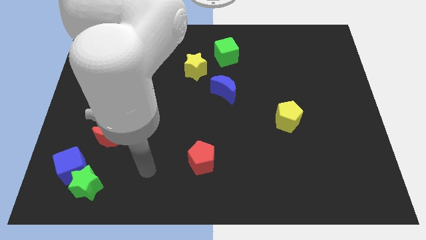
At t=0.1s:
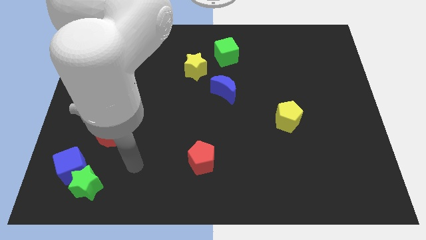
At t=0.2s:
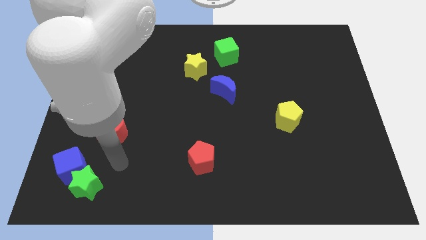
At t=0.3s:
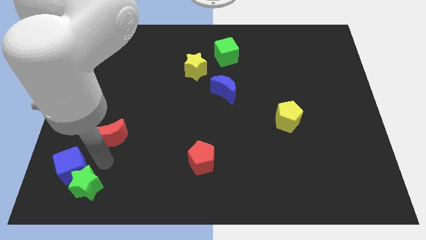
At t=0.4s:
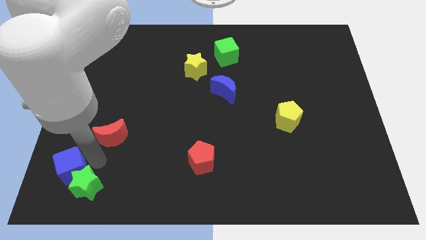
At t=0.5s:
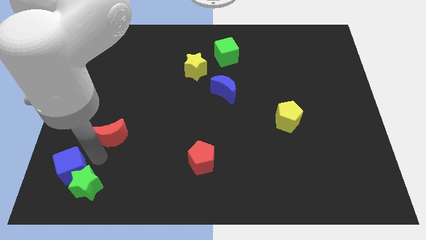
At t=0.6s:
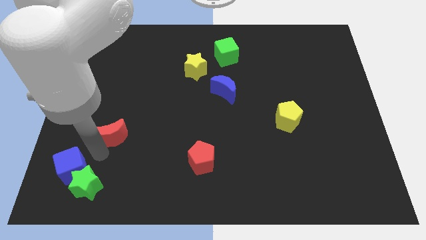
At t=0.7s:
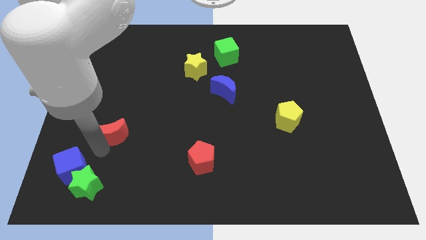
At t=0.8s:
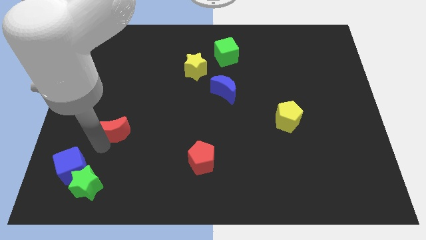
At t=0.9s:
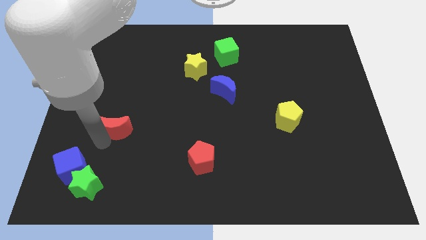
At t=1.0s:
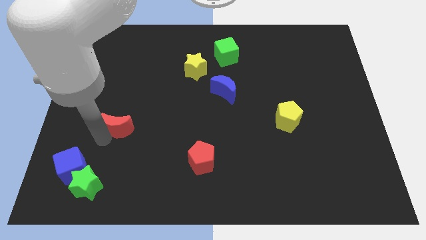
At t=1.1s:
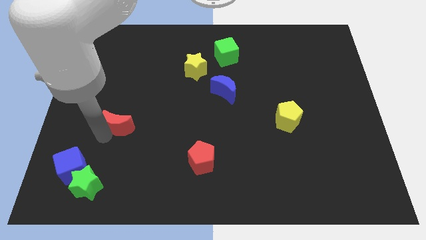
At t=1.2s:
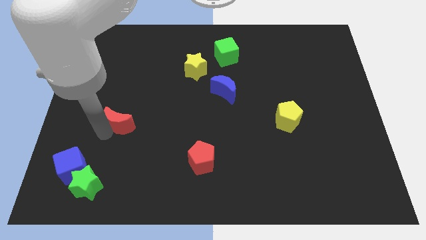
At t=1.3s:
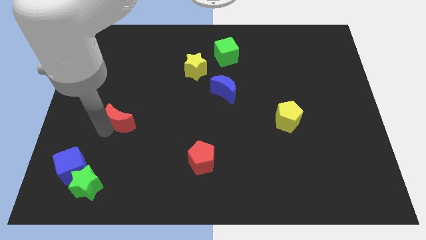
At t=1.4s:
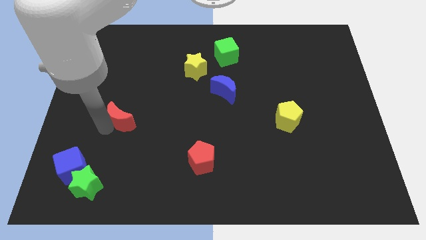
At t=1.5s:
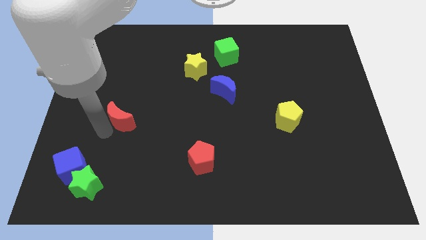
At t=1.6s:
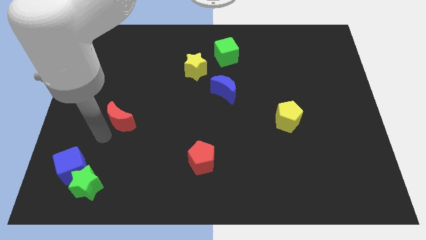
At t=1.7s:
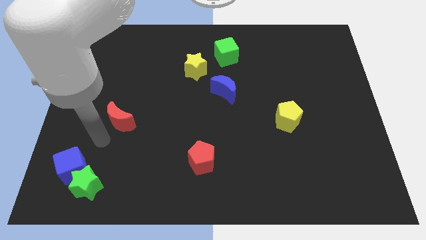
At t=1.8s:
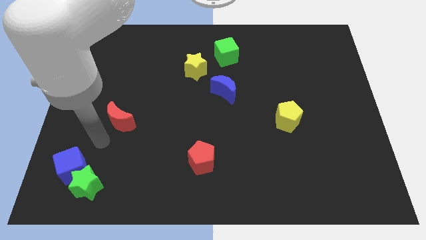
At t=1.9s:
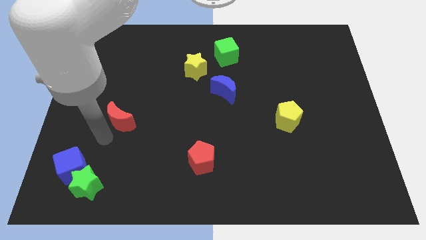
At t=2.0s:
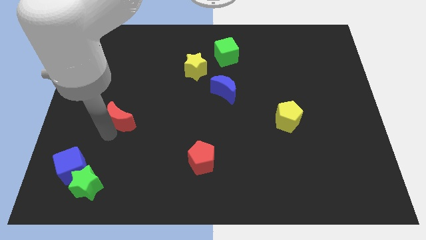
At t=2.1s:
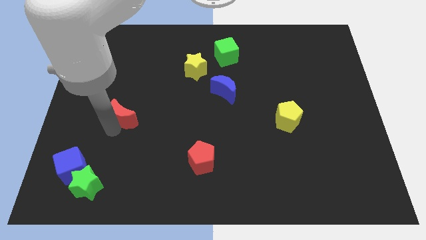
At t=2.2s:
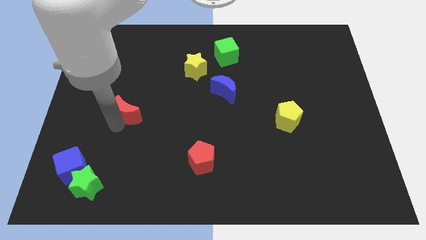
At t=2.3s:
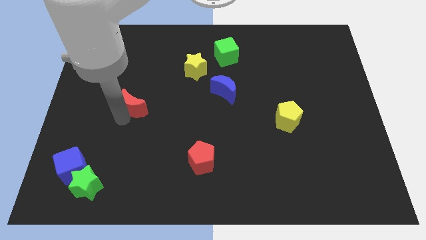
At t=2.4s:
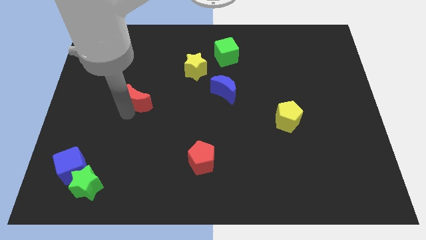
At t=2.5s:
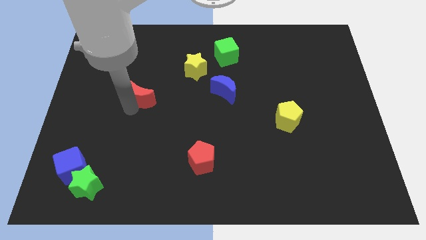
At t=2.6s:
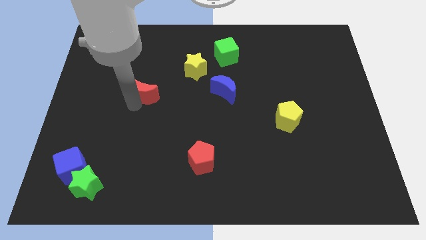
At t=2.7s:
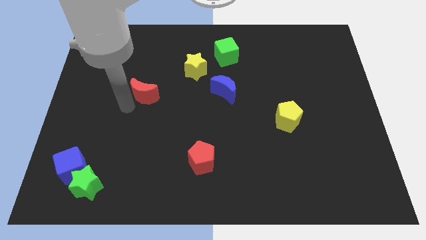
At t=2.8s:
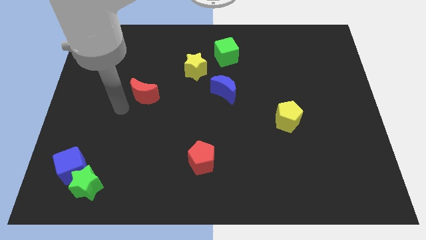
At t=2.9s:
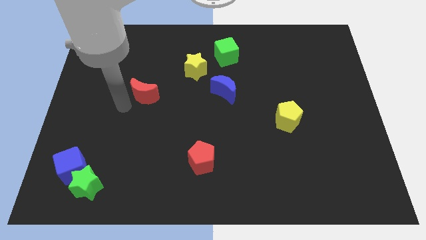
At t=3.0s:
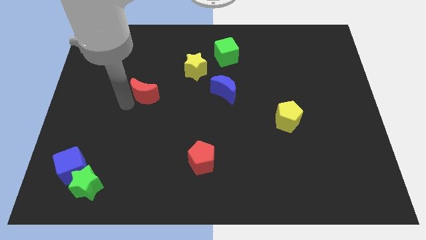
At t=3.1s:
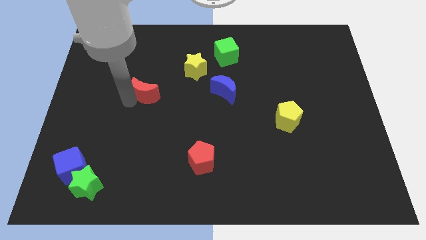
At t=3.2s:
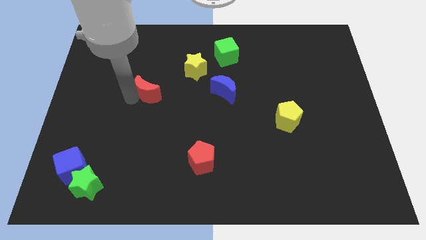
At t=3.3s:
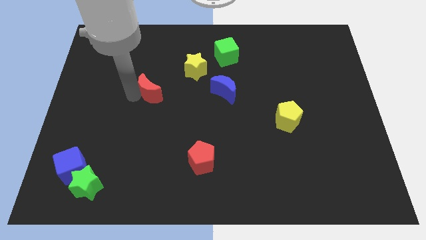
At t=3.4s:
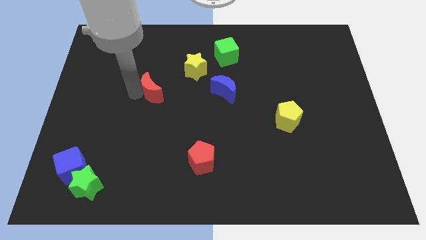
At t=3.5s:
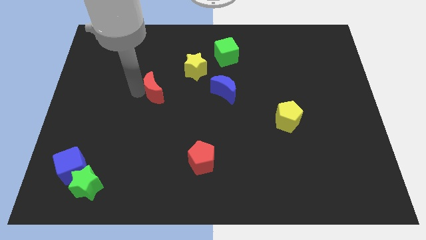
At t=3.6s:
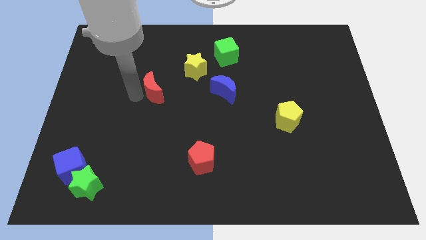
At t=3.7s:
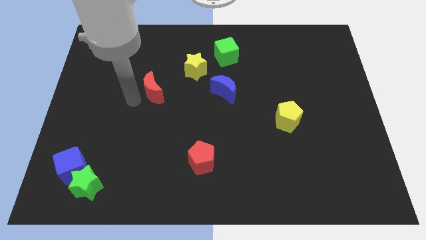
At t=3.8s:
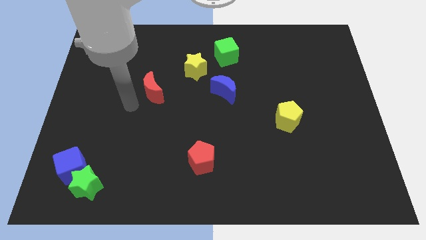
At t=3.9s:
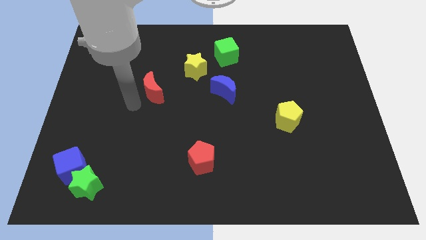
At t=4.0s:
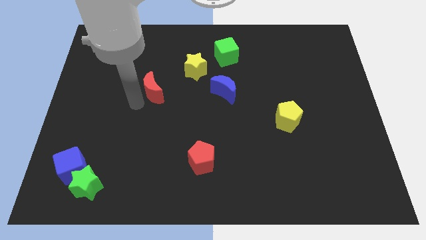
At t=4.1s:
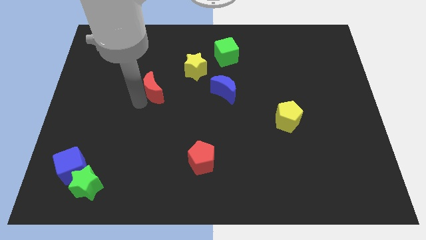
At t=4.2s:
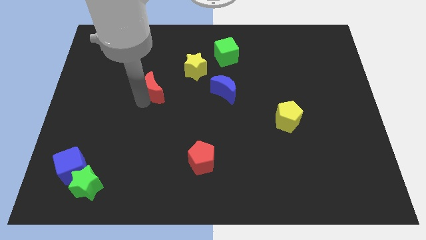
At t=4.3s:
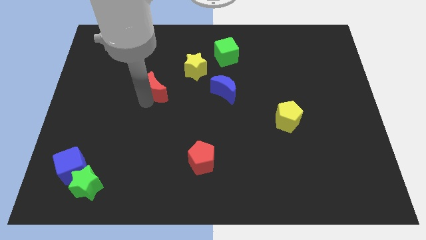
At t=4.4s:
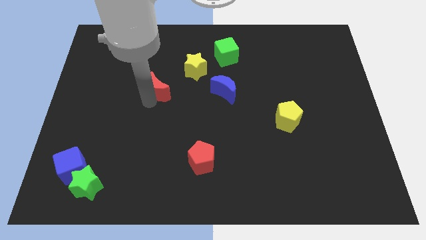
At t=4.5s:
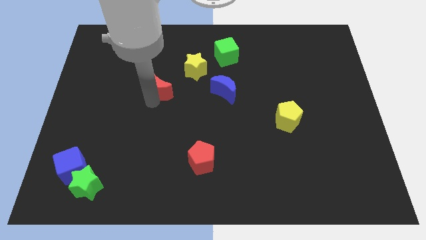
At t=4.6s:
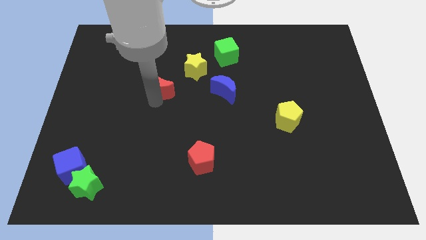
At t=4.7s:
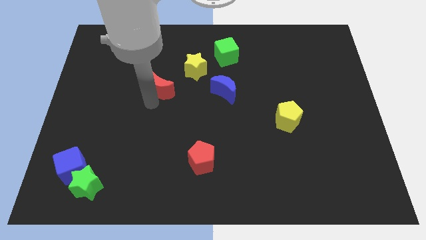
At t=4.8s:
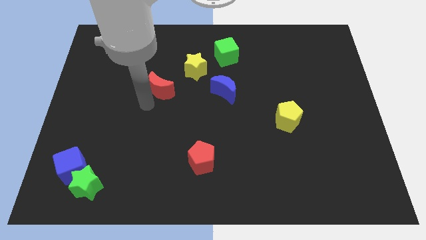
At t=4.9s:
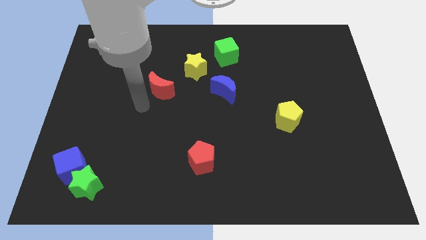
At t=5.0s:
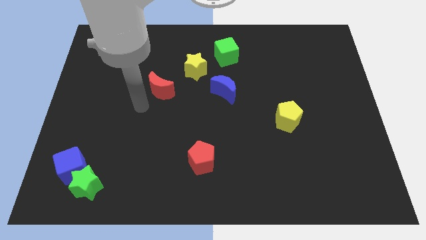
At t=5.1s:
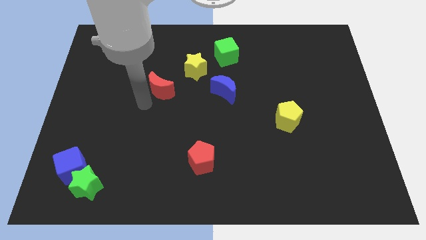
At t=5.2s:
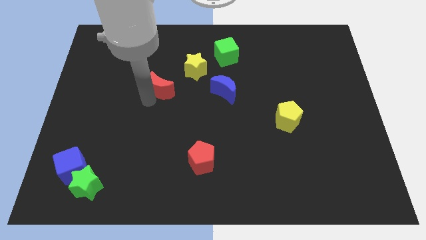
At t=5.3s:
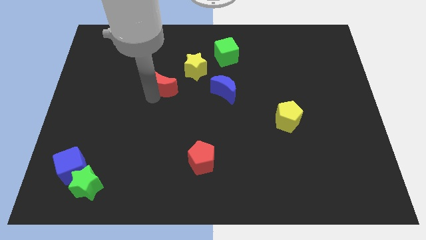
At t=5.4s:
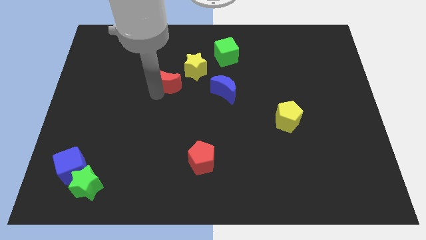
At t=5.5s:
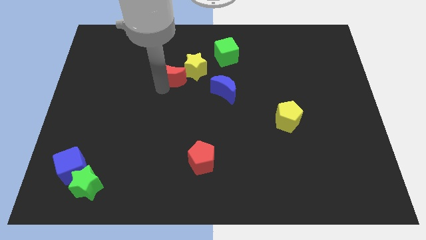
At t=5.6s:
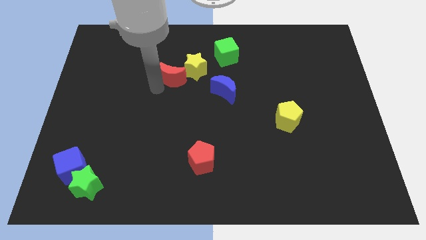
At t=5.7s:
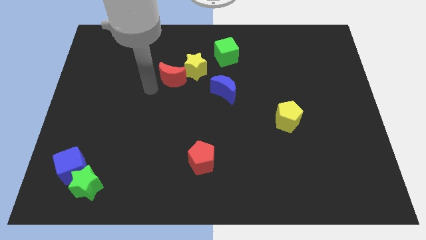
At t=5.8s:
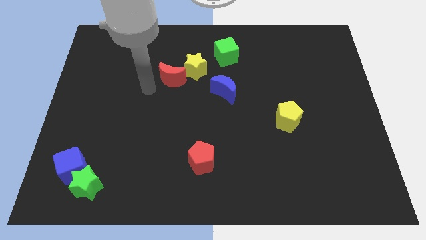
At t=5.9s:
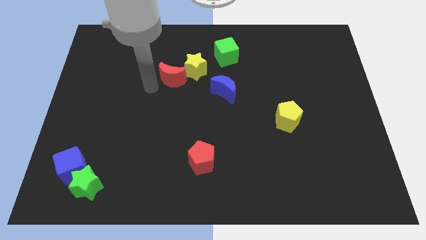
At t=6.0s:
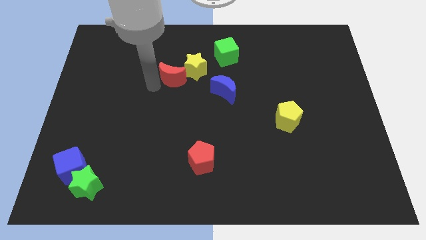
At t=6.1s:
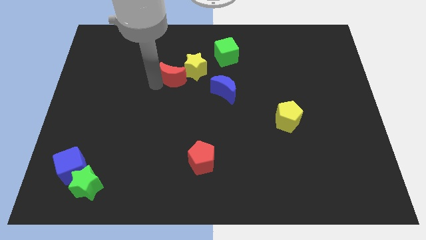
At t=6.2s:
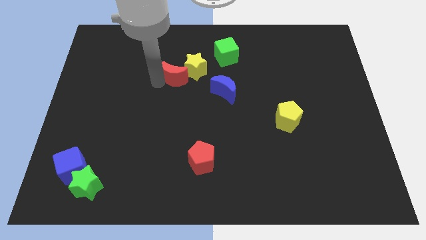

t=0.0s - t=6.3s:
slide the red moon close to the yellow star

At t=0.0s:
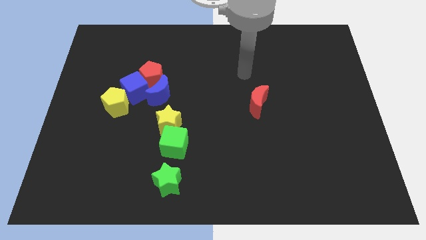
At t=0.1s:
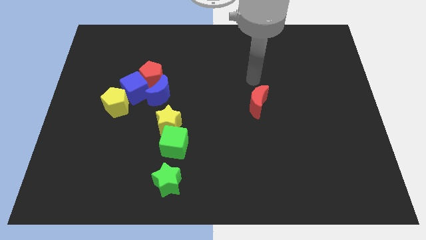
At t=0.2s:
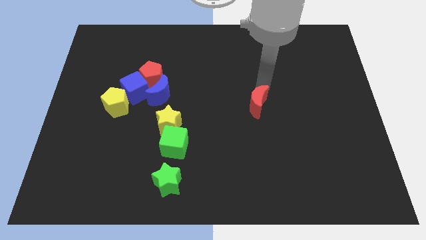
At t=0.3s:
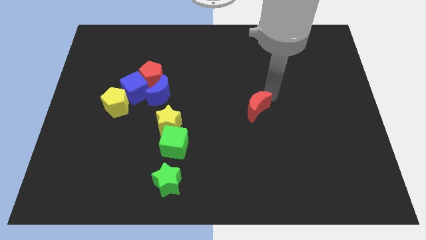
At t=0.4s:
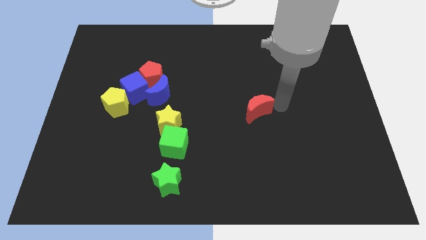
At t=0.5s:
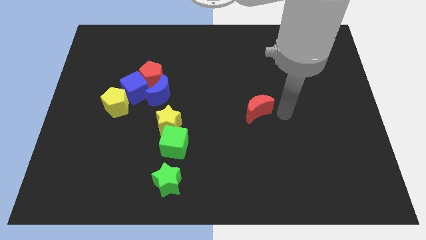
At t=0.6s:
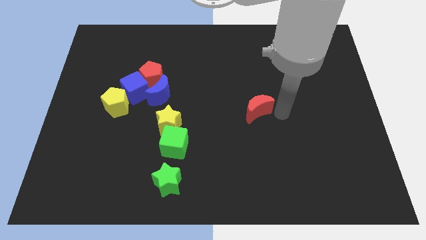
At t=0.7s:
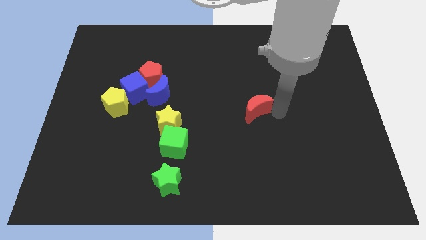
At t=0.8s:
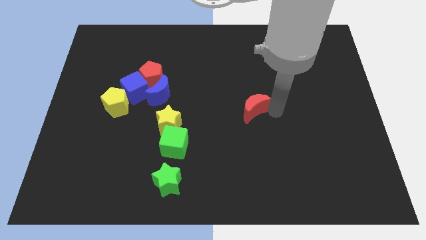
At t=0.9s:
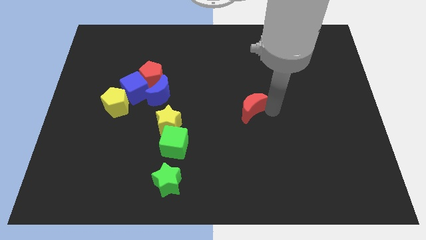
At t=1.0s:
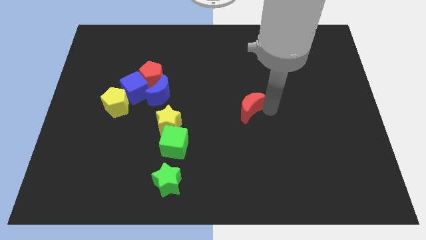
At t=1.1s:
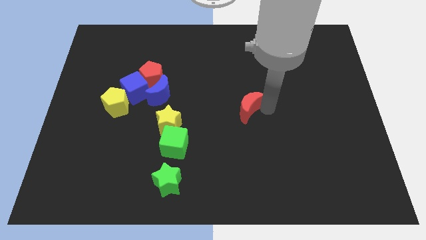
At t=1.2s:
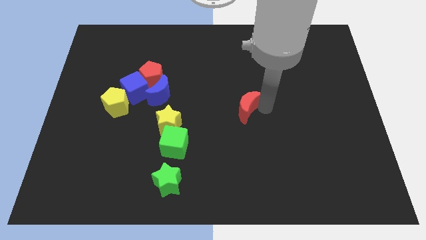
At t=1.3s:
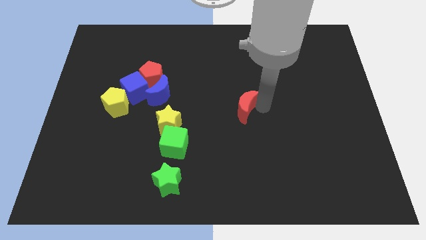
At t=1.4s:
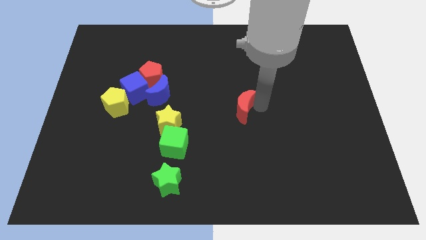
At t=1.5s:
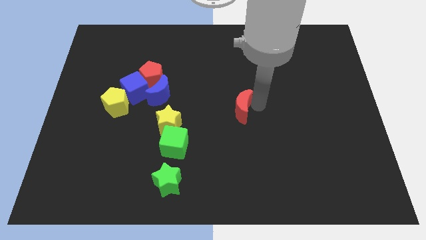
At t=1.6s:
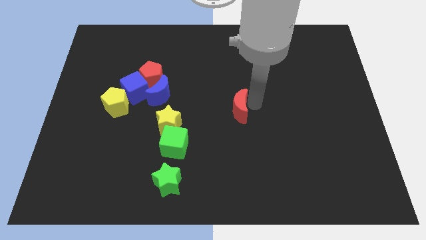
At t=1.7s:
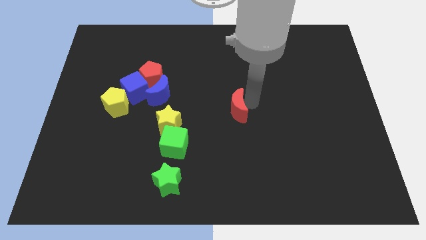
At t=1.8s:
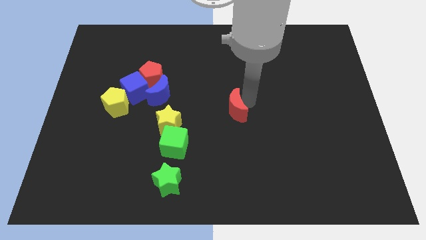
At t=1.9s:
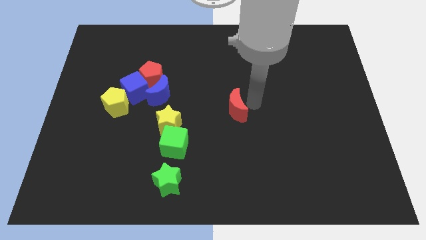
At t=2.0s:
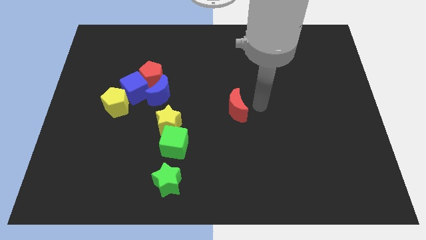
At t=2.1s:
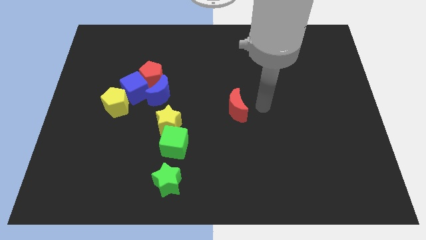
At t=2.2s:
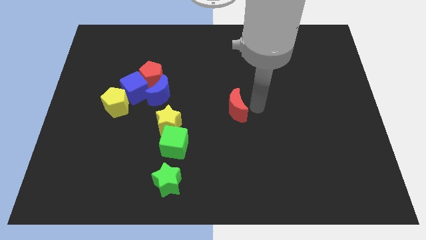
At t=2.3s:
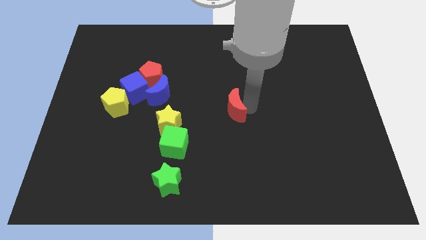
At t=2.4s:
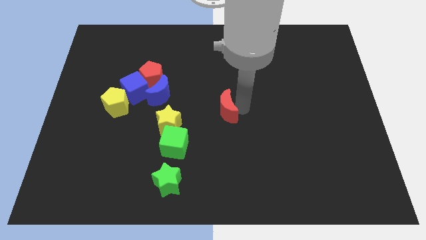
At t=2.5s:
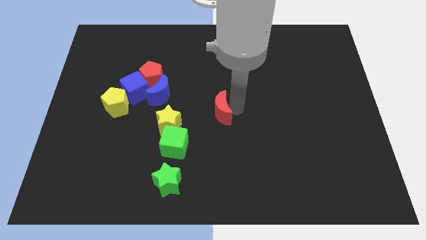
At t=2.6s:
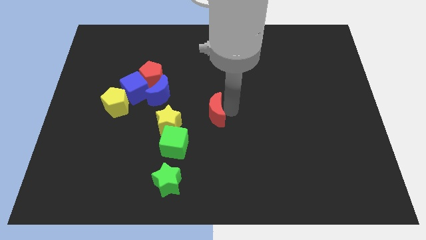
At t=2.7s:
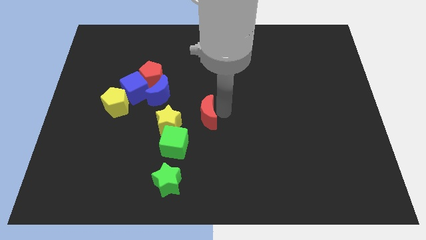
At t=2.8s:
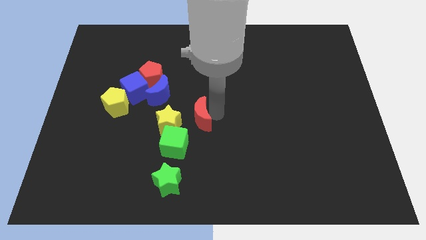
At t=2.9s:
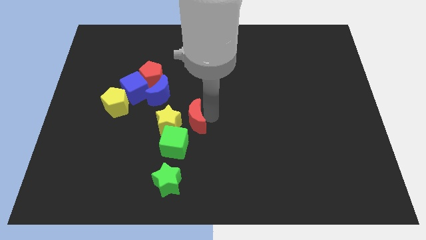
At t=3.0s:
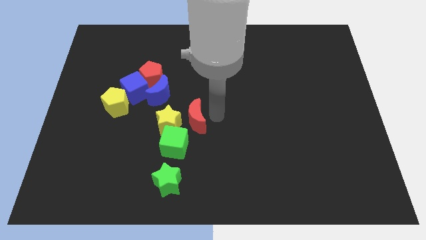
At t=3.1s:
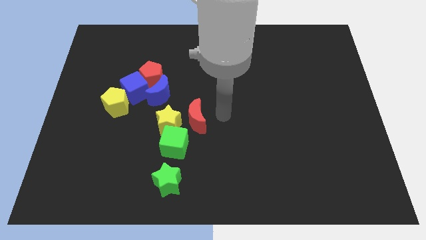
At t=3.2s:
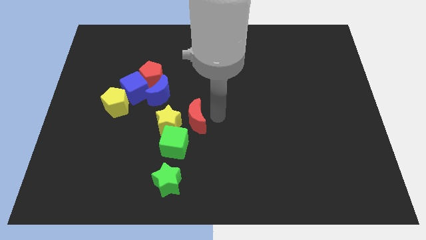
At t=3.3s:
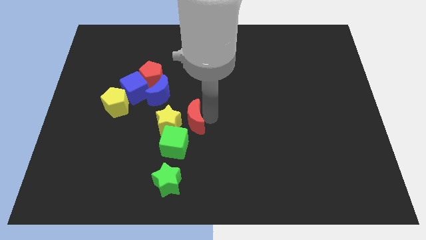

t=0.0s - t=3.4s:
move the red moon towards the yellow star
